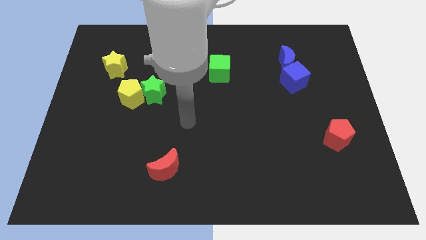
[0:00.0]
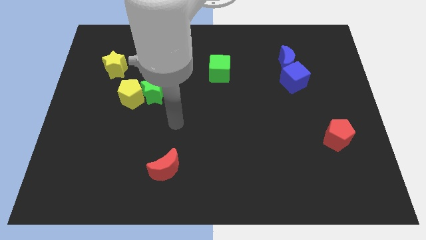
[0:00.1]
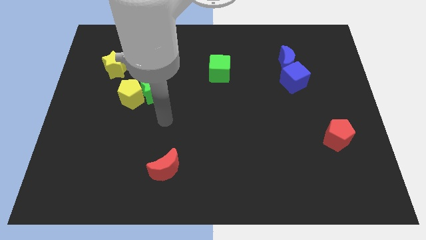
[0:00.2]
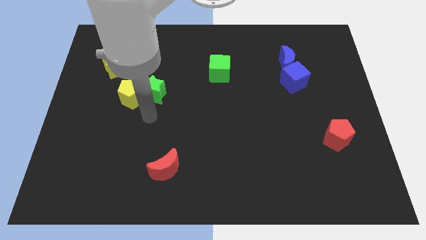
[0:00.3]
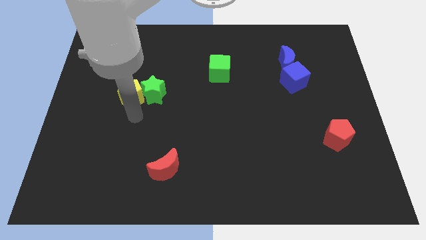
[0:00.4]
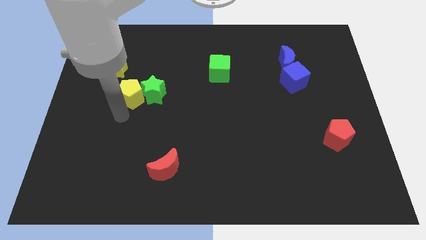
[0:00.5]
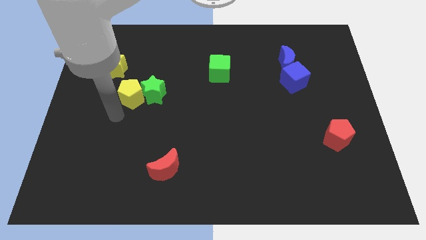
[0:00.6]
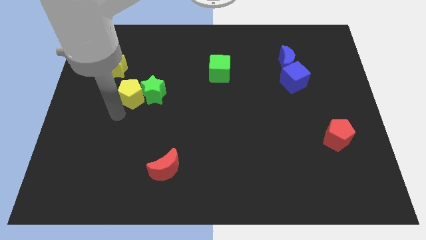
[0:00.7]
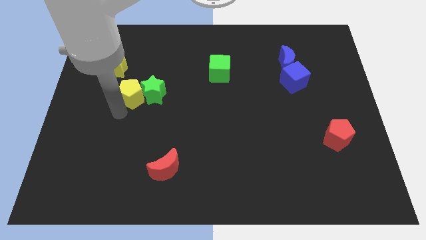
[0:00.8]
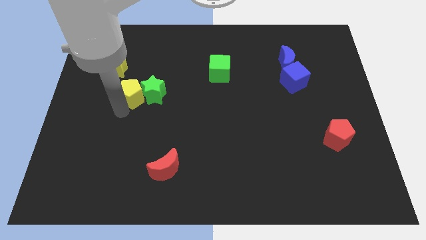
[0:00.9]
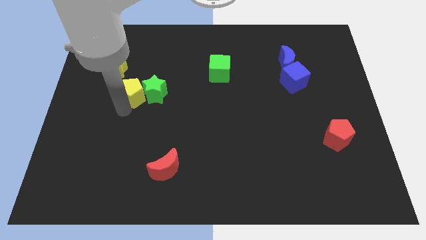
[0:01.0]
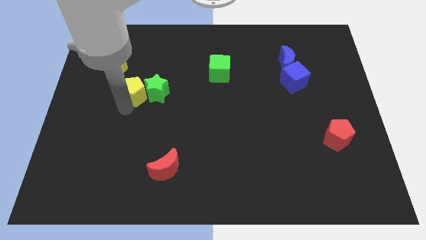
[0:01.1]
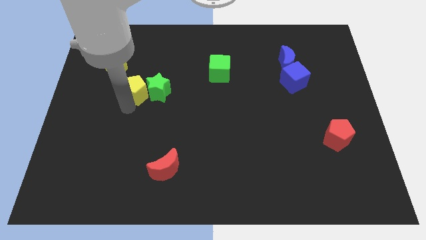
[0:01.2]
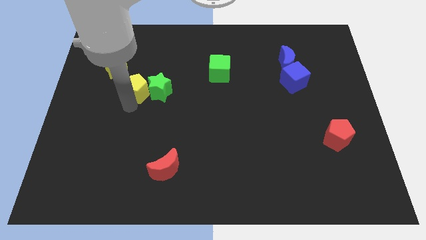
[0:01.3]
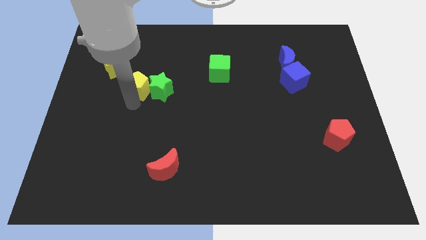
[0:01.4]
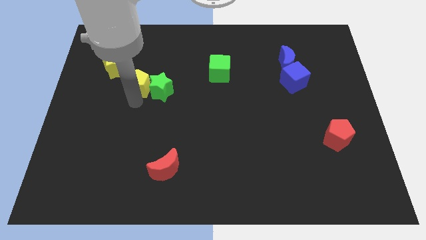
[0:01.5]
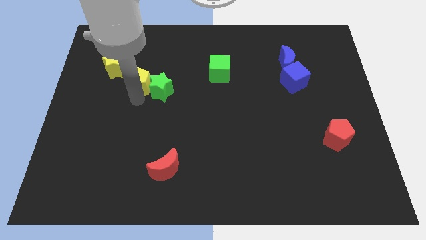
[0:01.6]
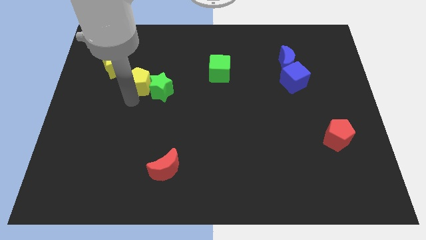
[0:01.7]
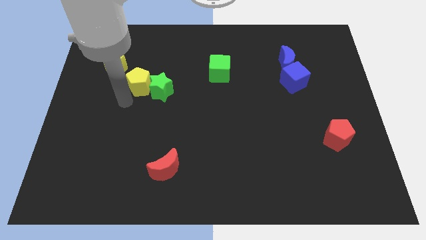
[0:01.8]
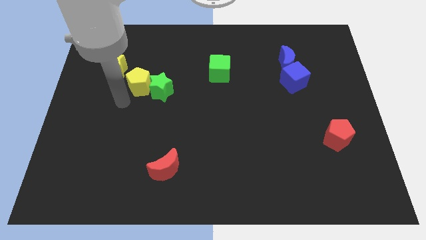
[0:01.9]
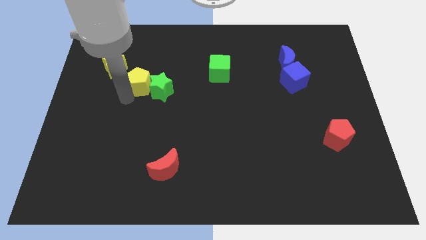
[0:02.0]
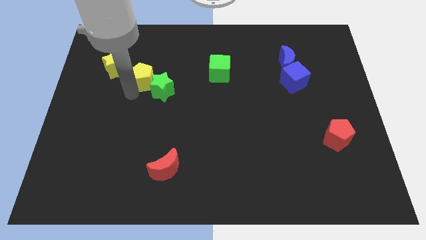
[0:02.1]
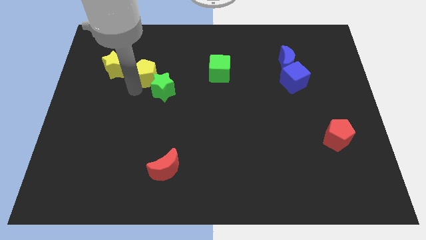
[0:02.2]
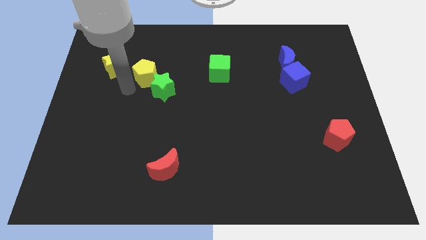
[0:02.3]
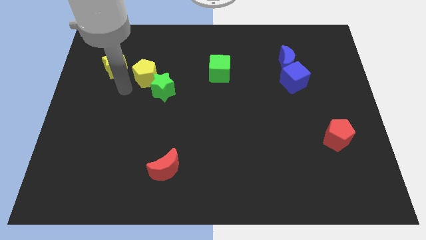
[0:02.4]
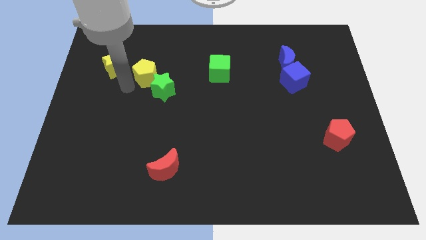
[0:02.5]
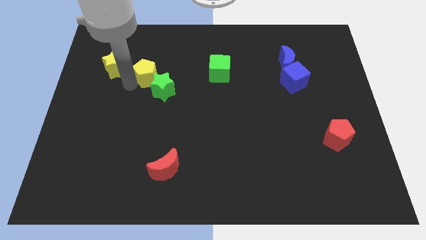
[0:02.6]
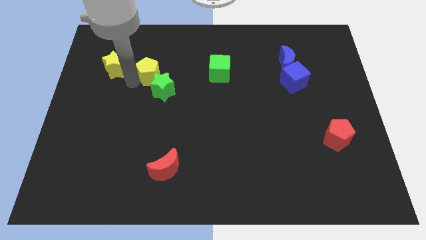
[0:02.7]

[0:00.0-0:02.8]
slide the yellow pentagon a little diagonally up and to the right

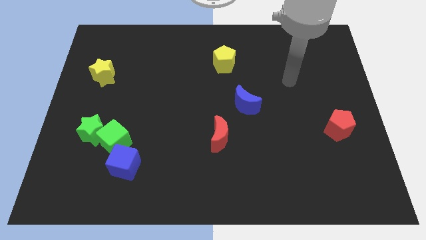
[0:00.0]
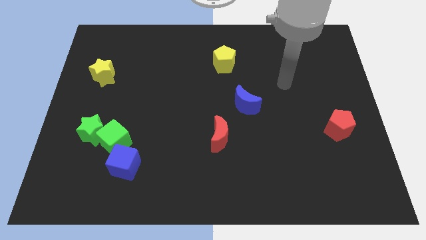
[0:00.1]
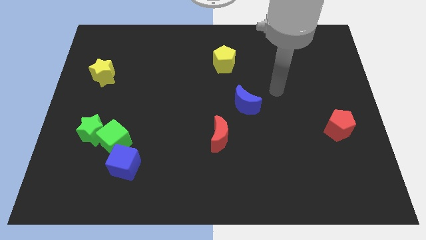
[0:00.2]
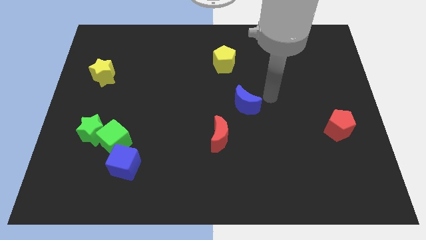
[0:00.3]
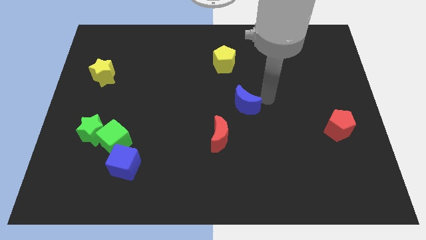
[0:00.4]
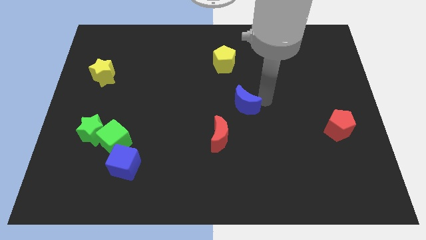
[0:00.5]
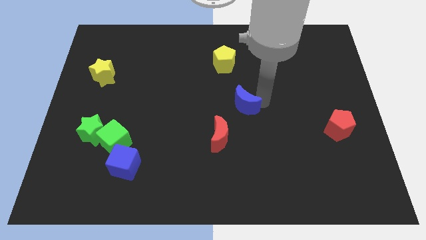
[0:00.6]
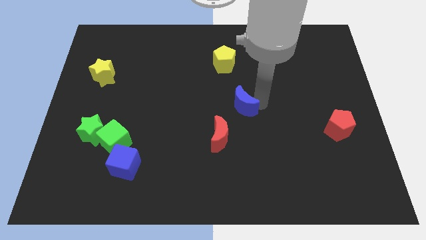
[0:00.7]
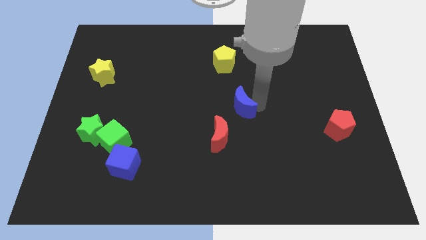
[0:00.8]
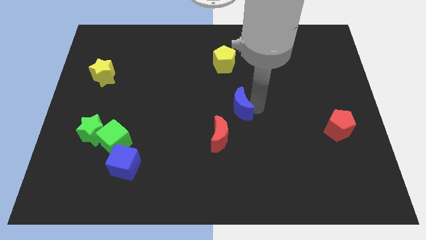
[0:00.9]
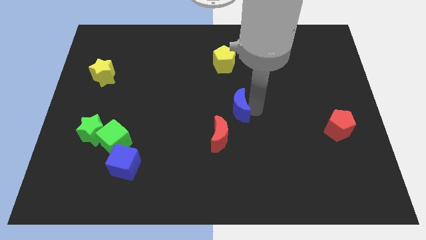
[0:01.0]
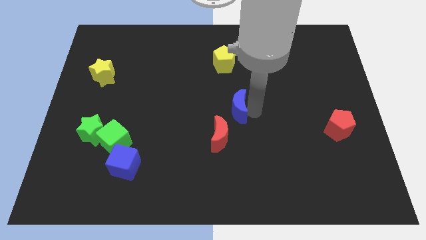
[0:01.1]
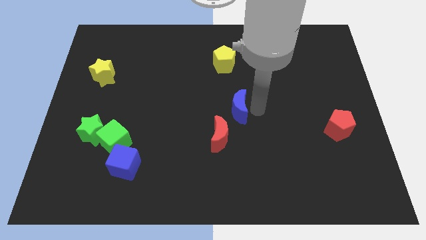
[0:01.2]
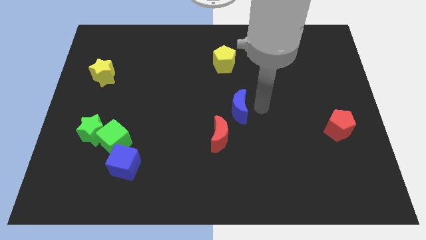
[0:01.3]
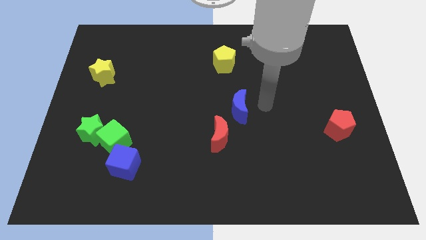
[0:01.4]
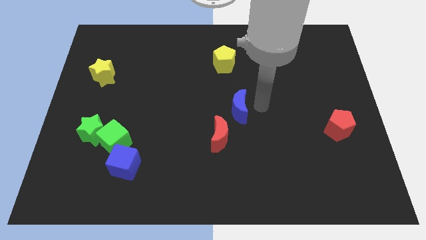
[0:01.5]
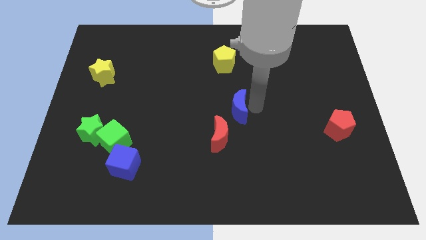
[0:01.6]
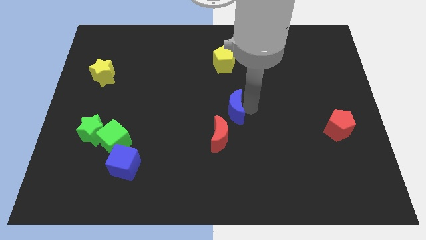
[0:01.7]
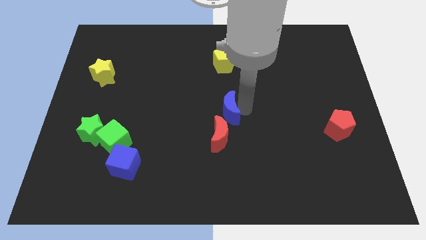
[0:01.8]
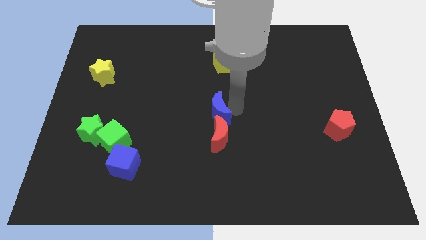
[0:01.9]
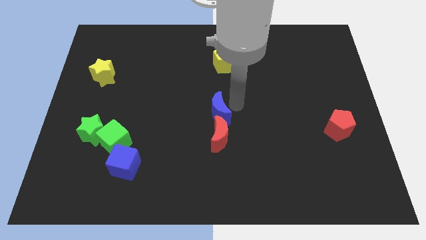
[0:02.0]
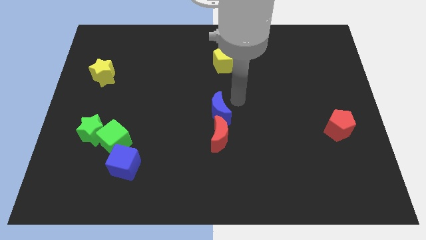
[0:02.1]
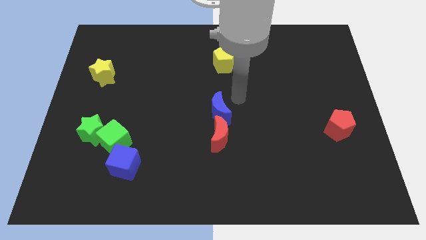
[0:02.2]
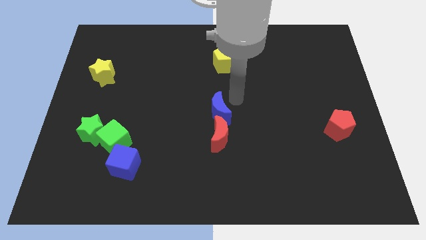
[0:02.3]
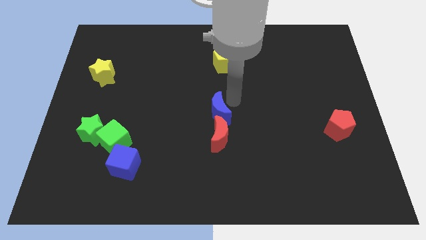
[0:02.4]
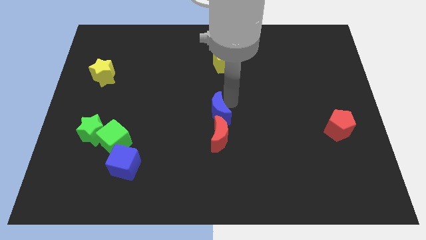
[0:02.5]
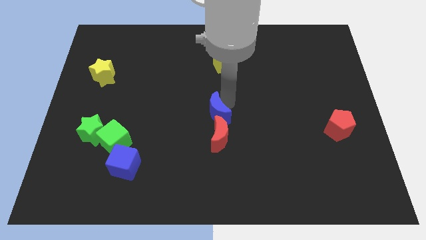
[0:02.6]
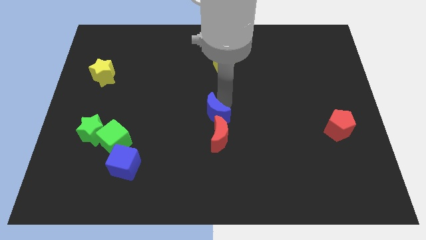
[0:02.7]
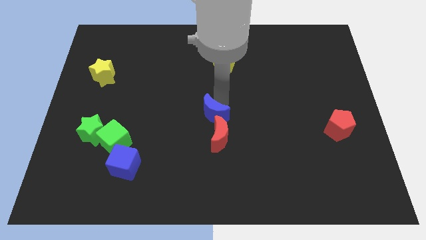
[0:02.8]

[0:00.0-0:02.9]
push the blue moon diagonally down and left a little bit

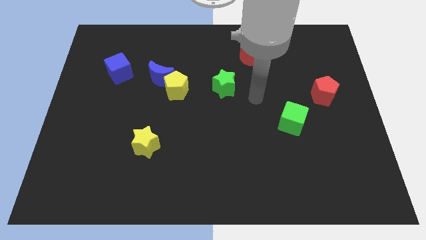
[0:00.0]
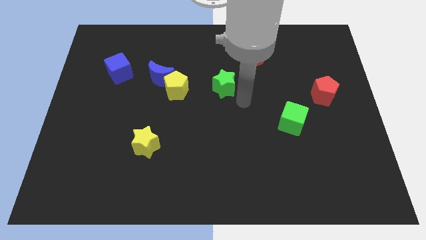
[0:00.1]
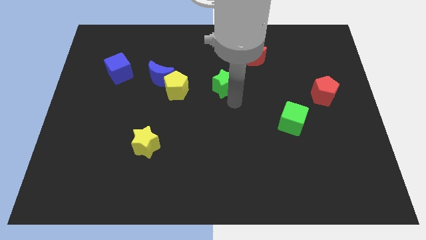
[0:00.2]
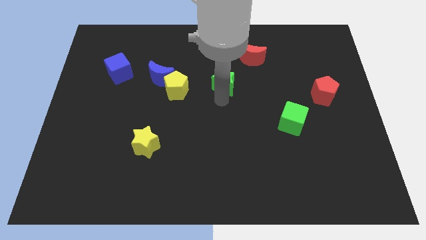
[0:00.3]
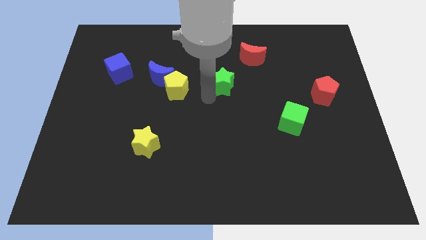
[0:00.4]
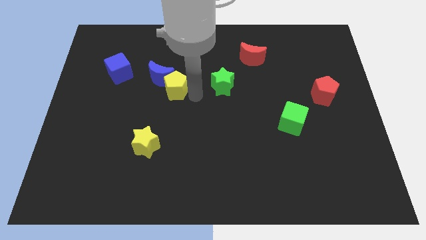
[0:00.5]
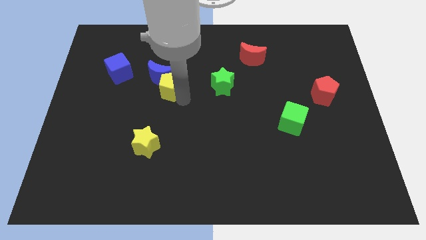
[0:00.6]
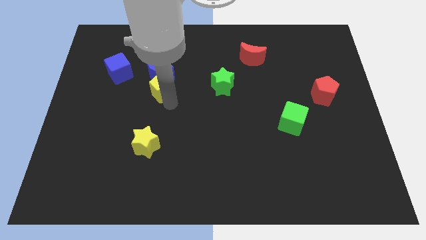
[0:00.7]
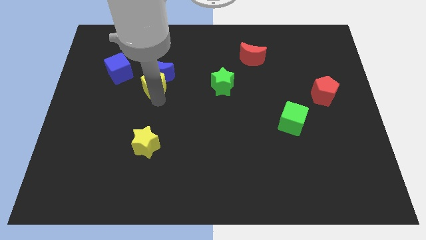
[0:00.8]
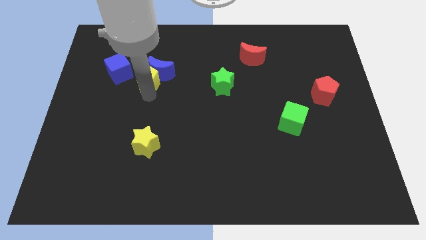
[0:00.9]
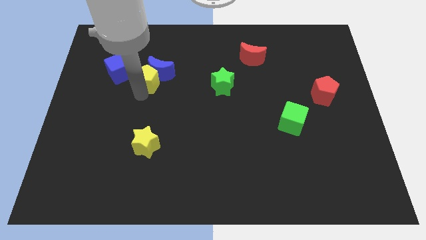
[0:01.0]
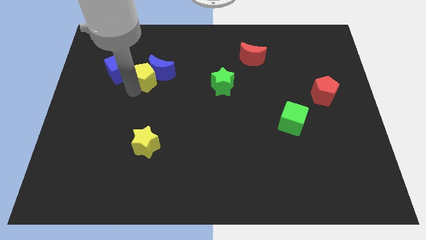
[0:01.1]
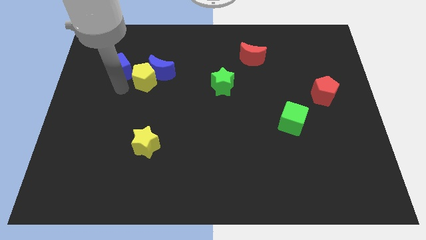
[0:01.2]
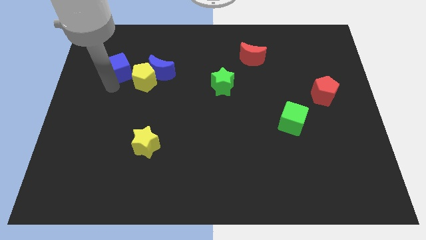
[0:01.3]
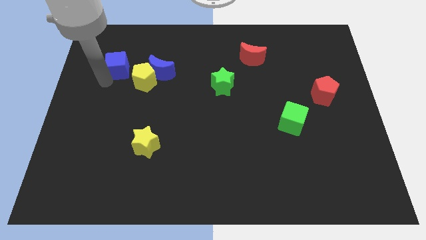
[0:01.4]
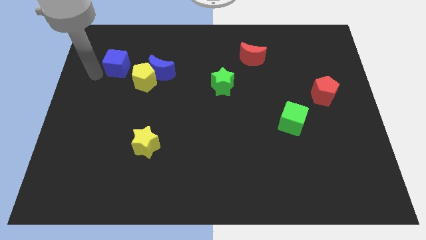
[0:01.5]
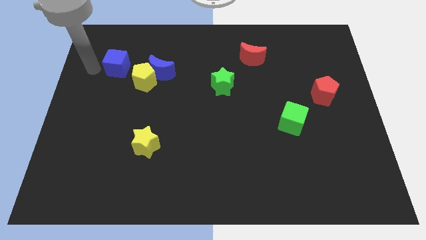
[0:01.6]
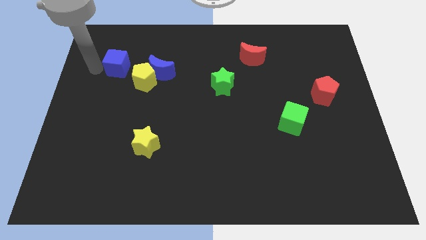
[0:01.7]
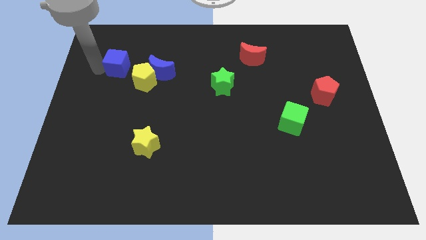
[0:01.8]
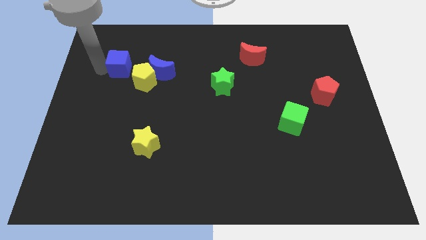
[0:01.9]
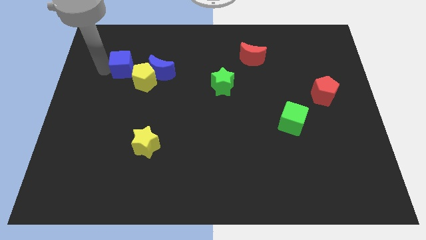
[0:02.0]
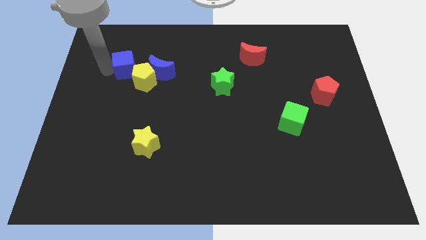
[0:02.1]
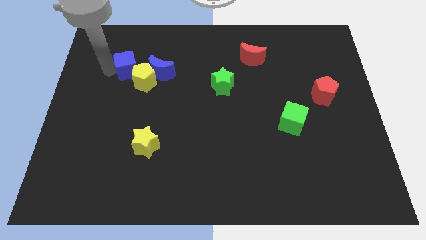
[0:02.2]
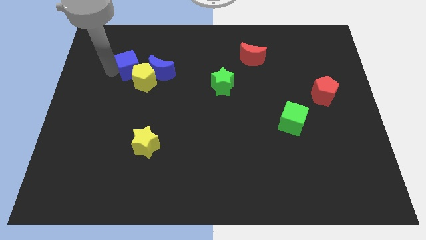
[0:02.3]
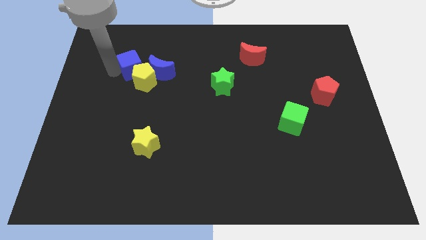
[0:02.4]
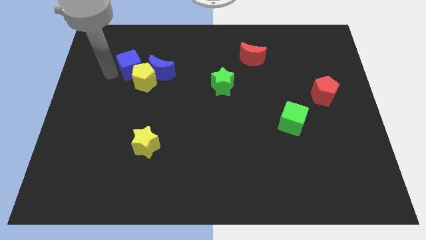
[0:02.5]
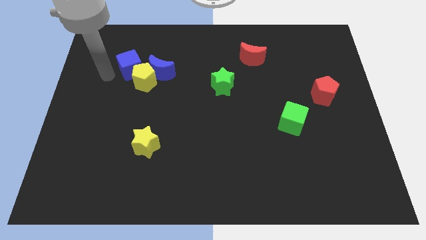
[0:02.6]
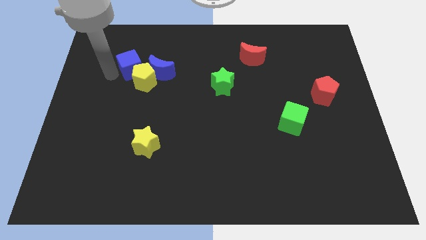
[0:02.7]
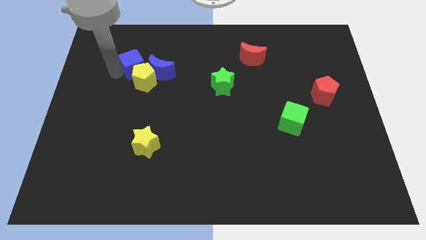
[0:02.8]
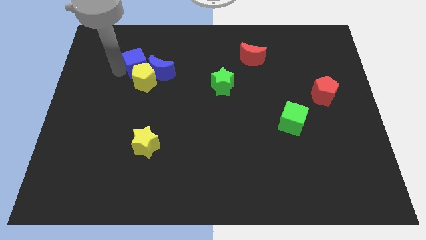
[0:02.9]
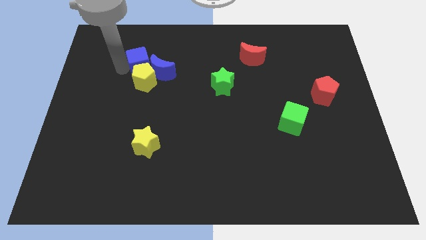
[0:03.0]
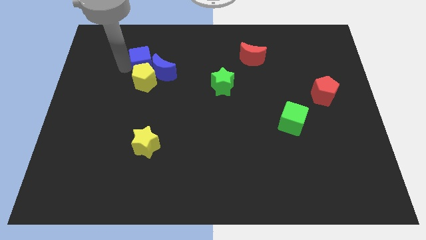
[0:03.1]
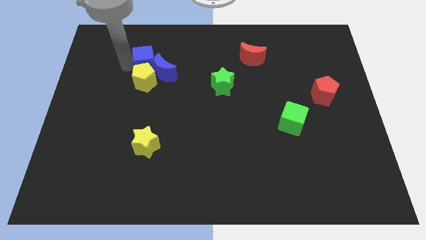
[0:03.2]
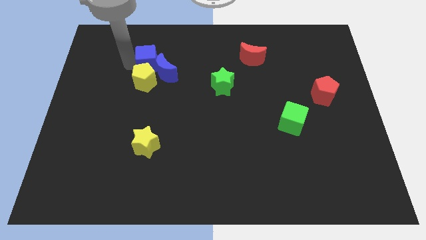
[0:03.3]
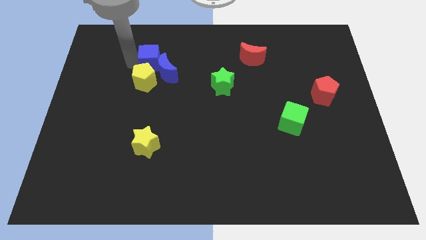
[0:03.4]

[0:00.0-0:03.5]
move the blue cube right somewhat
